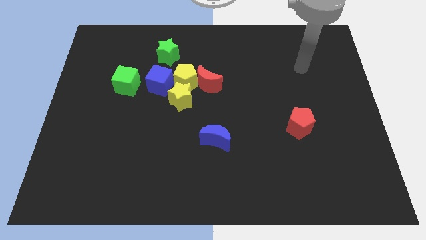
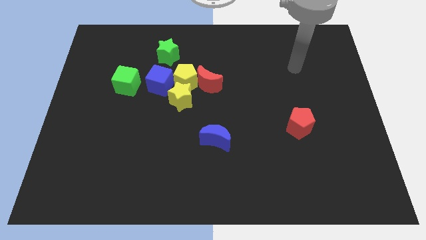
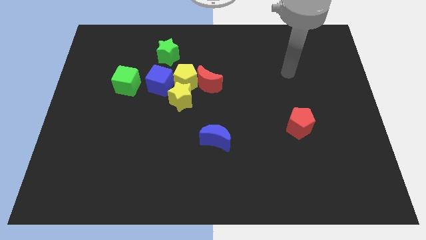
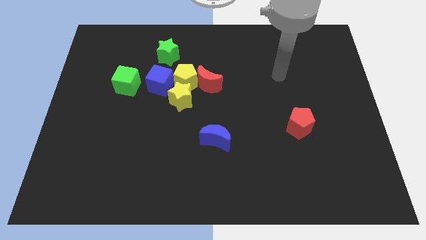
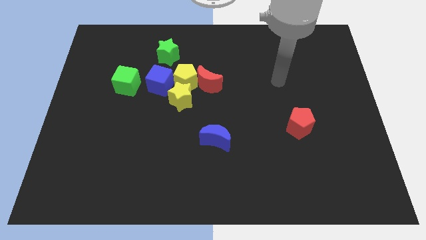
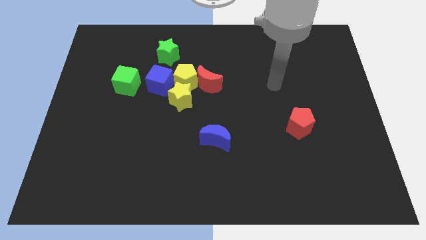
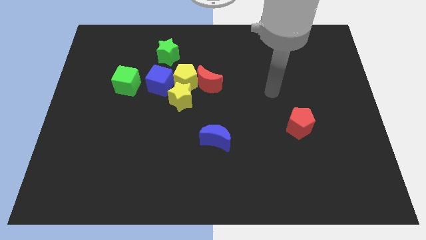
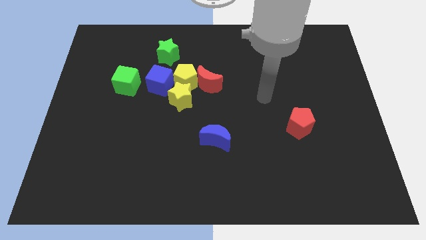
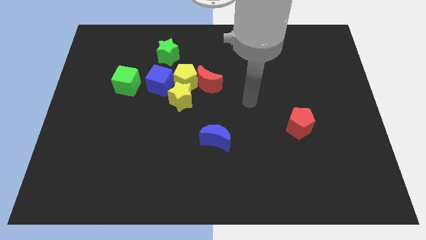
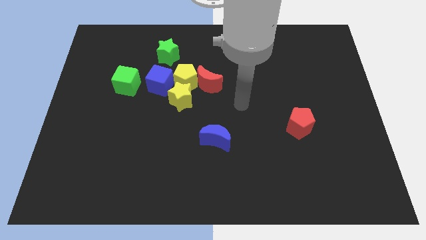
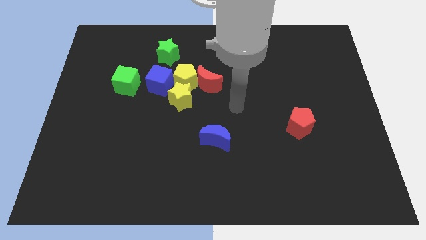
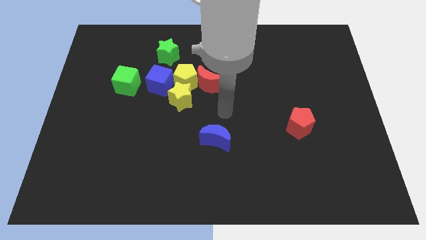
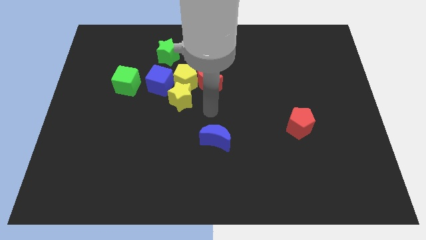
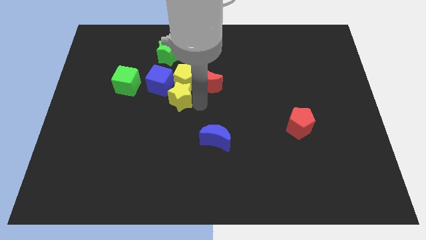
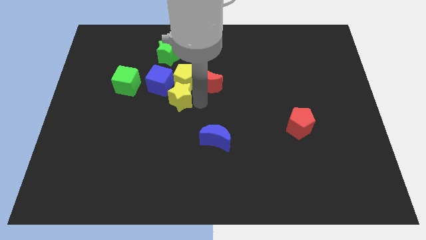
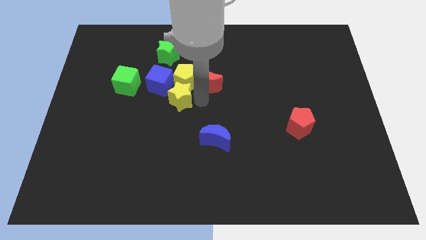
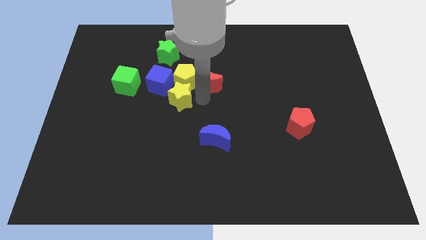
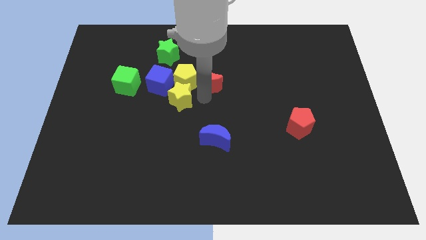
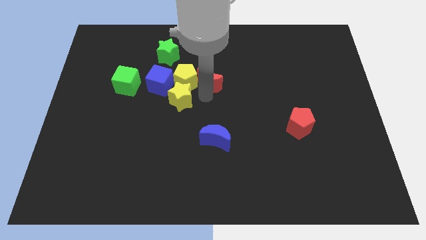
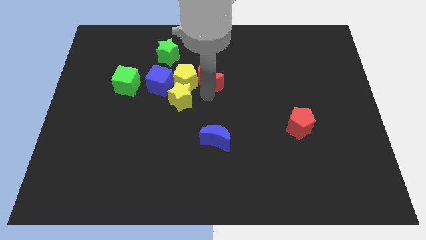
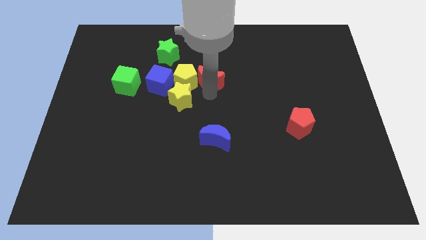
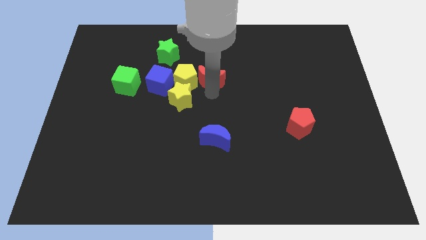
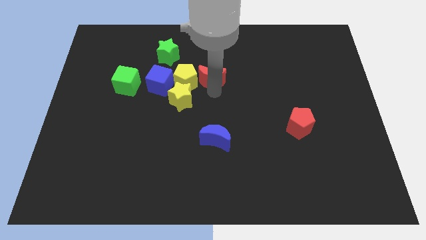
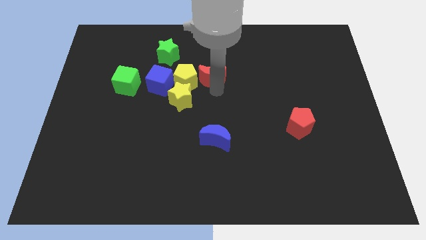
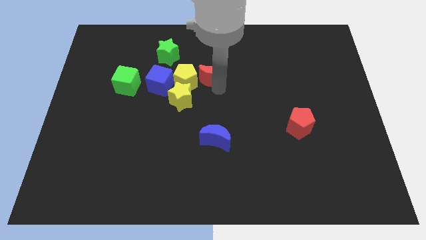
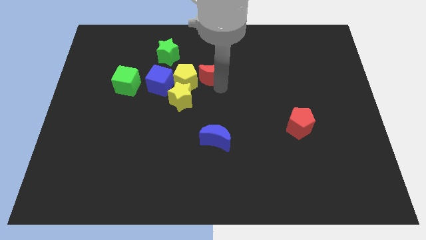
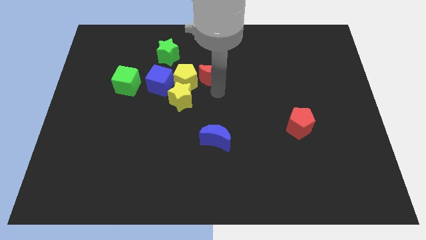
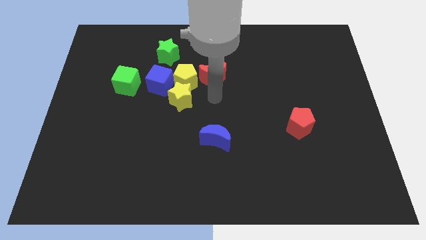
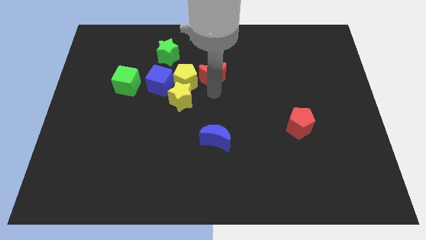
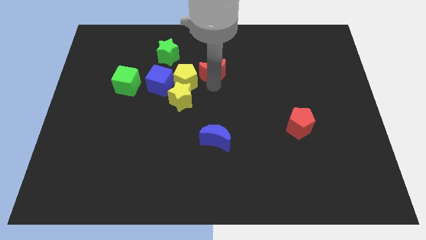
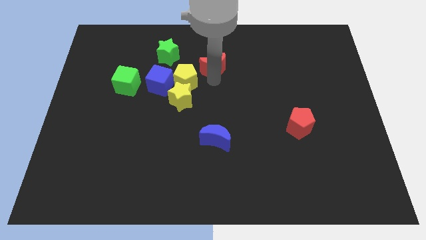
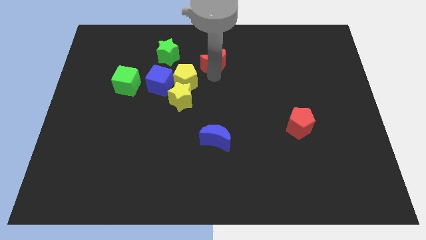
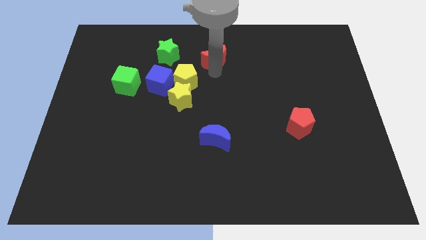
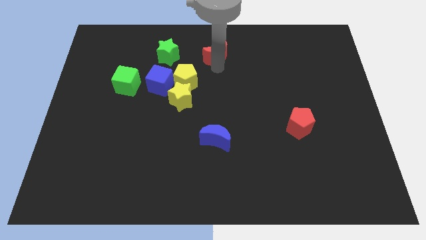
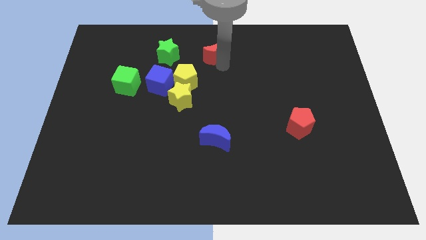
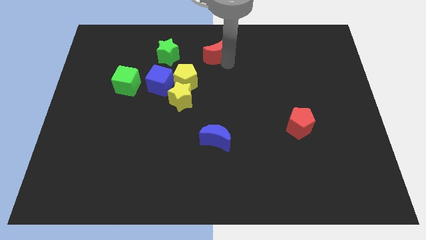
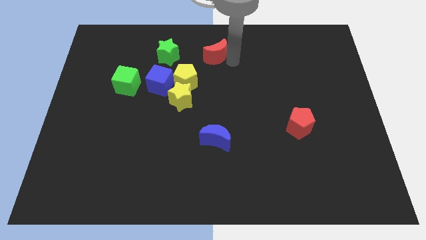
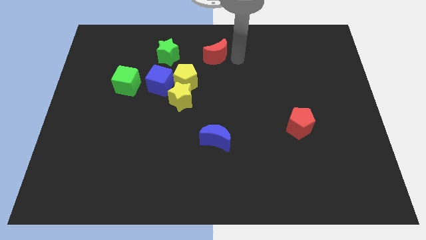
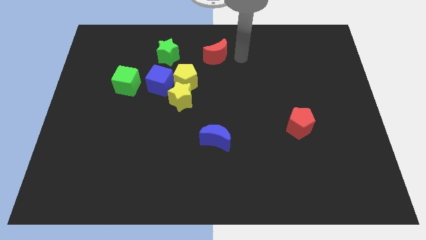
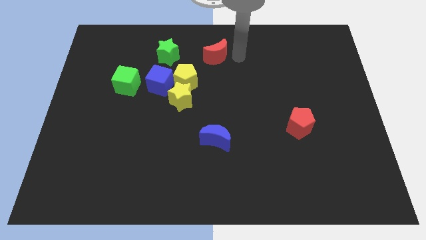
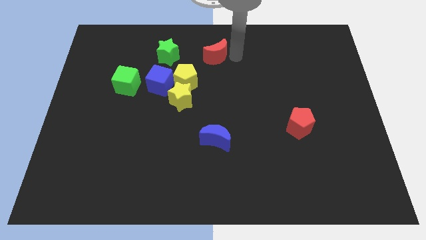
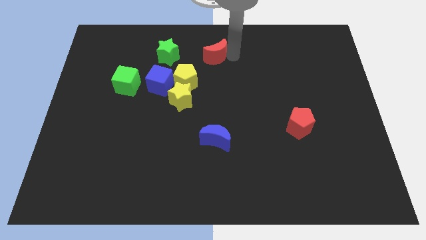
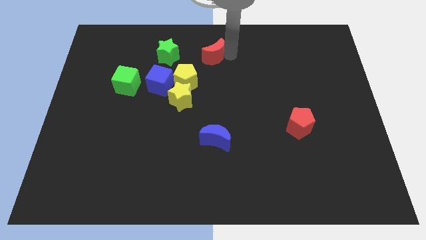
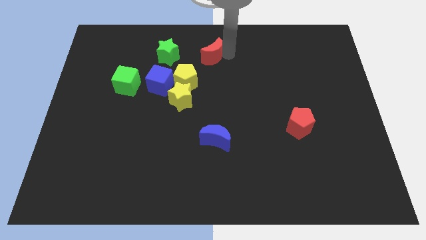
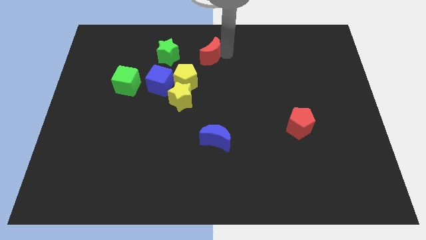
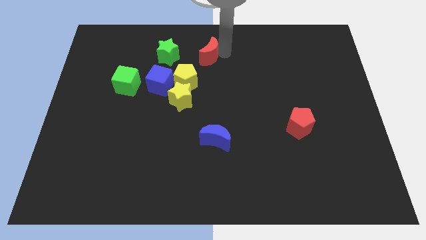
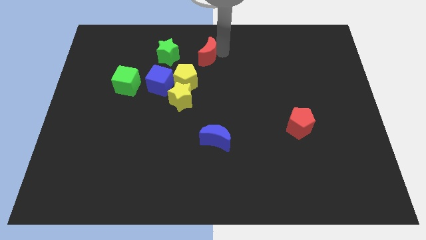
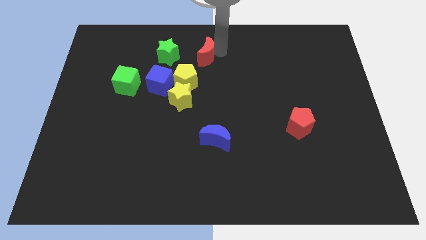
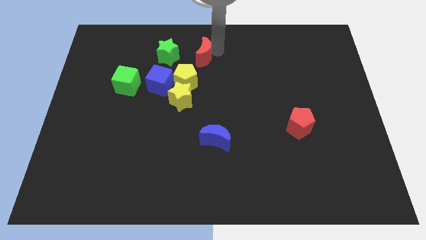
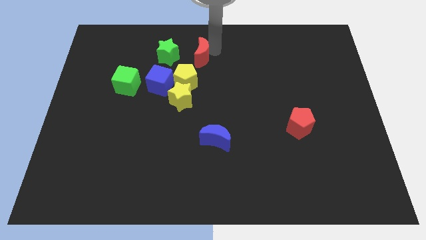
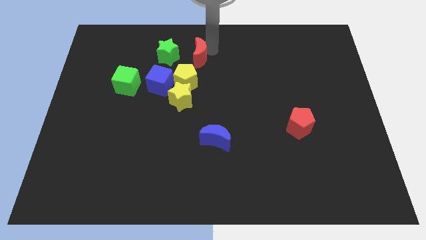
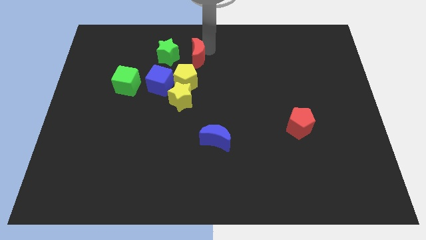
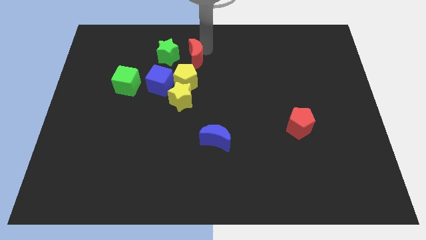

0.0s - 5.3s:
push the red moon diagonally up and to the right of the blue cube

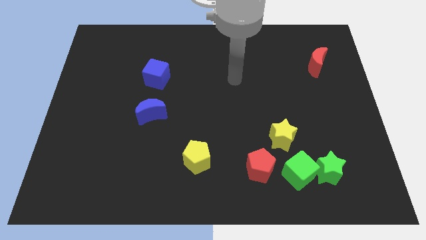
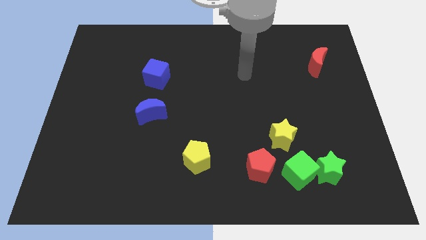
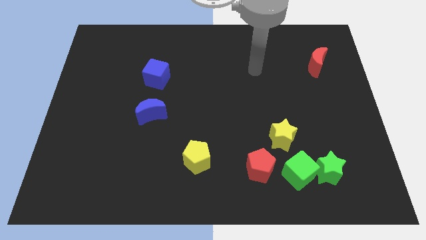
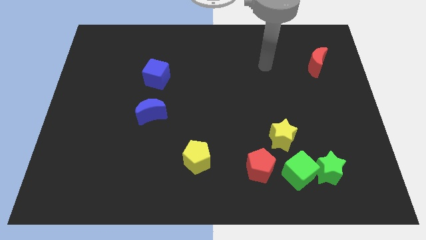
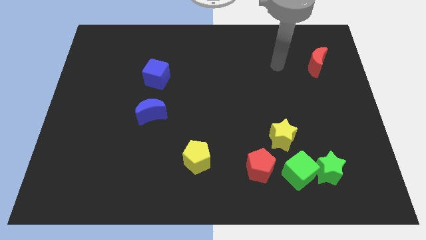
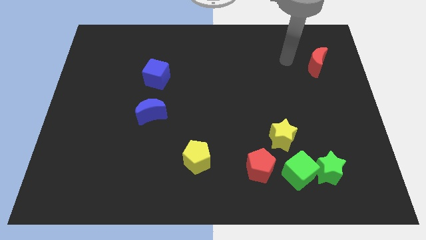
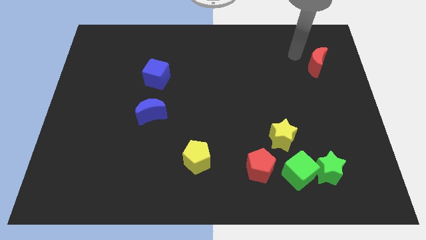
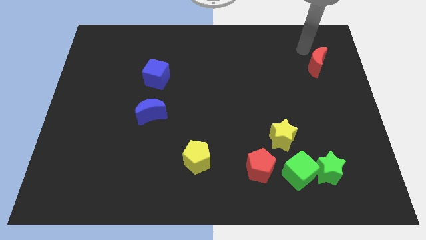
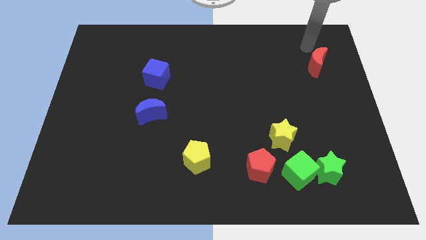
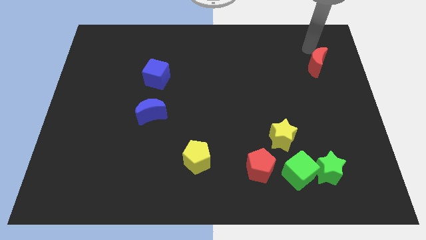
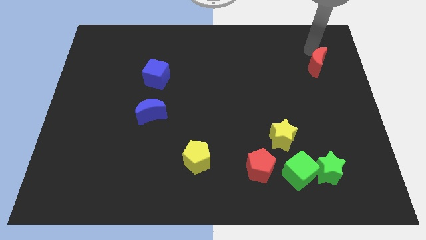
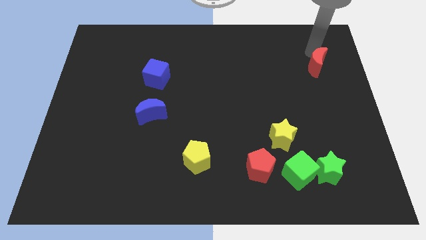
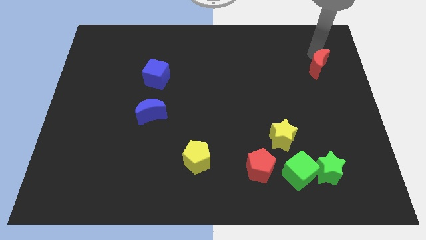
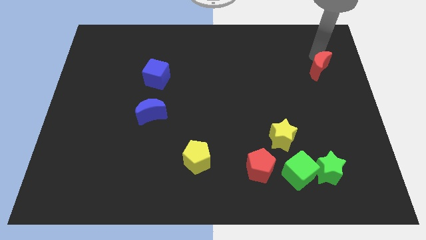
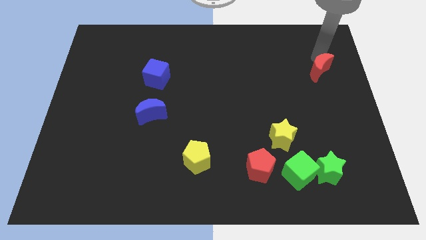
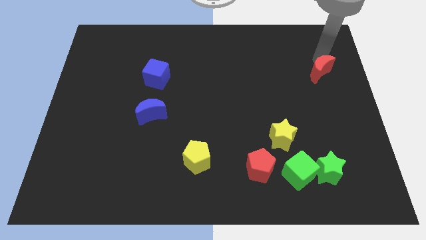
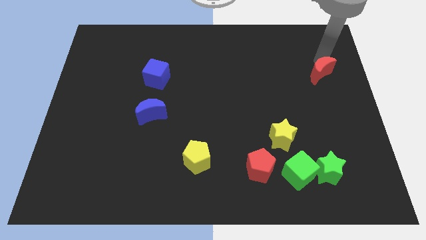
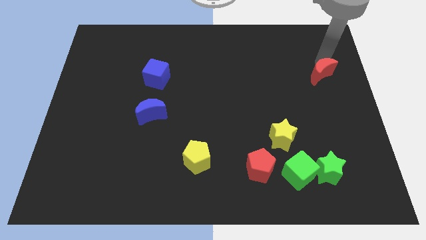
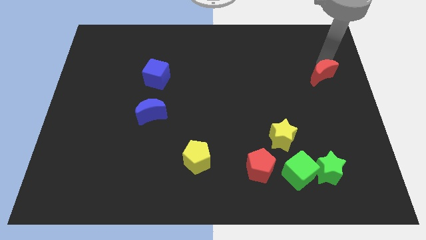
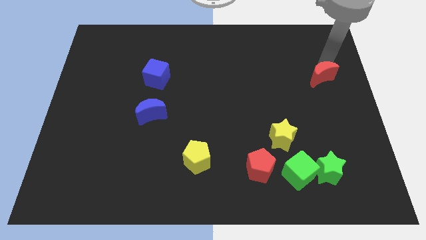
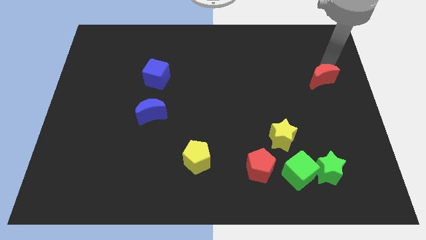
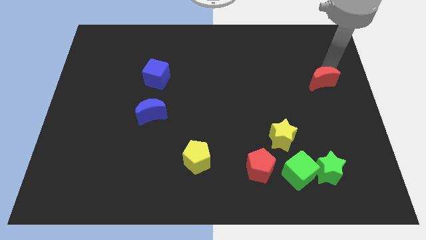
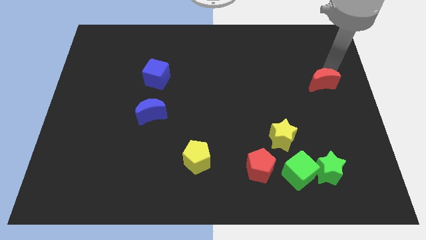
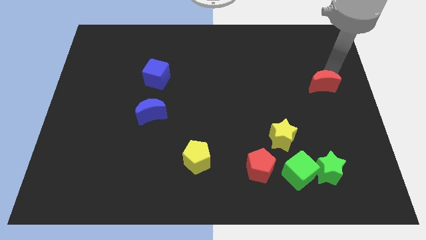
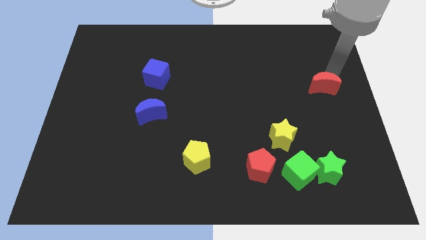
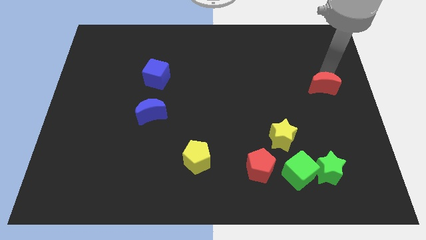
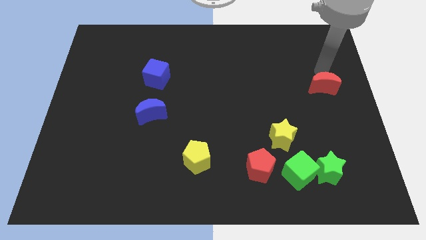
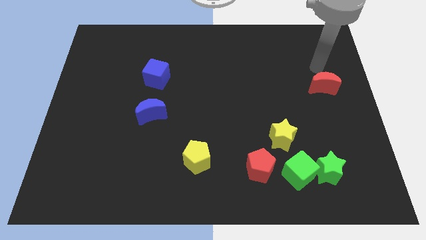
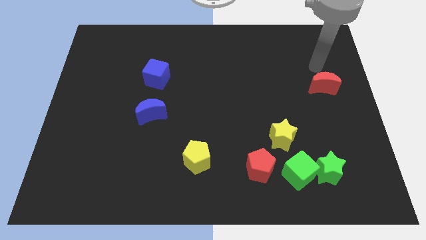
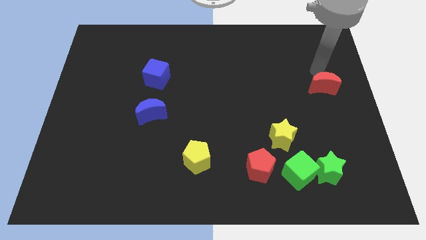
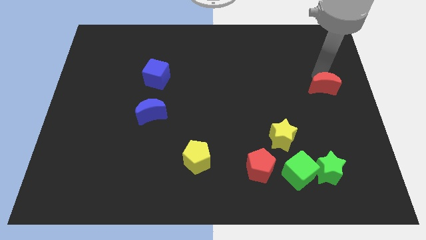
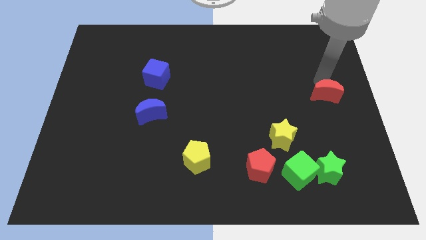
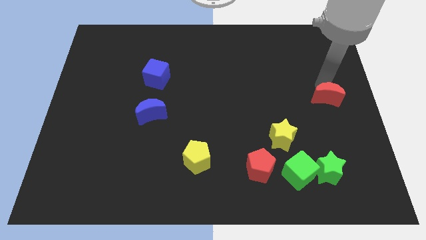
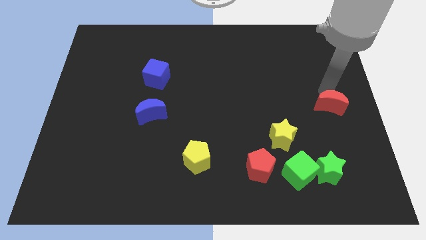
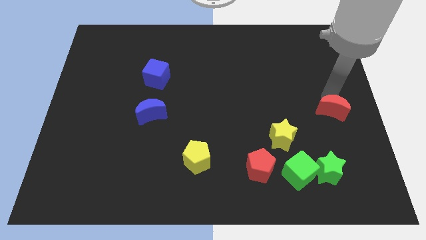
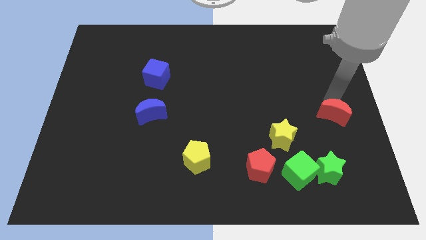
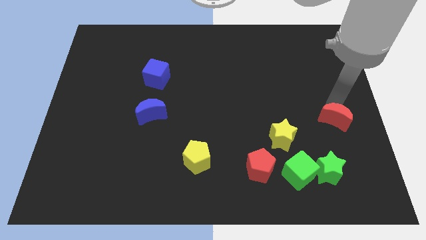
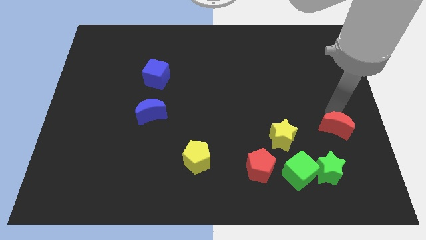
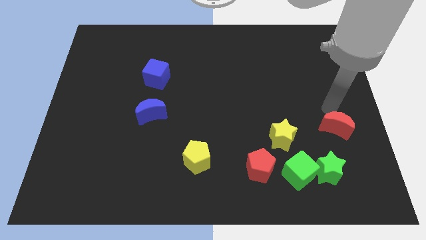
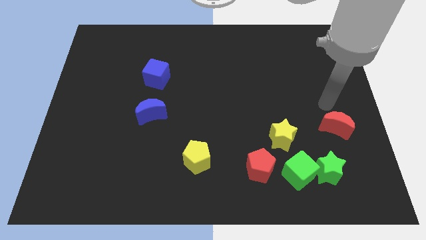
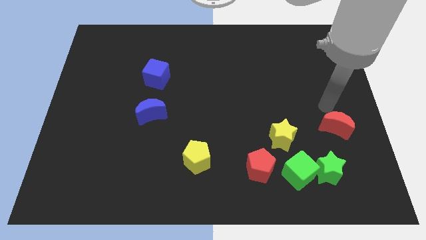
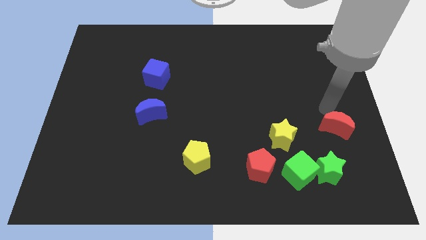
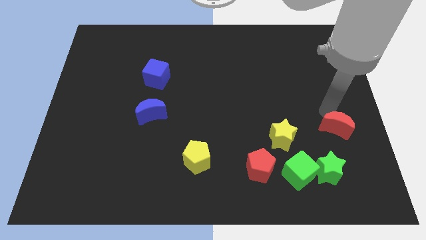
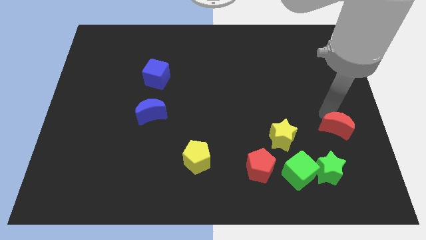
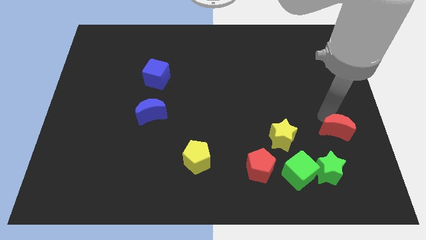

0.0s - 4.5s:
put the red moon to the top right of the green star
